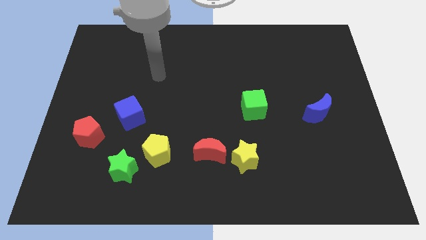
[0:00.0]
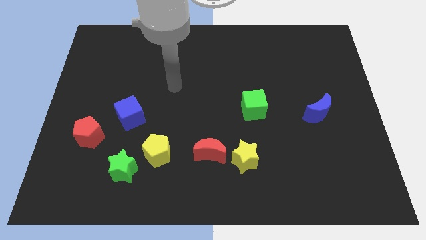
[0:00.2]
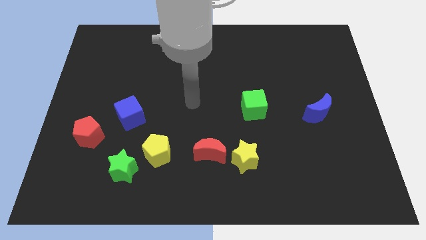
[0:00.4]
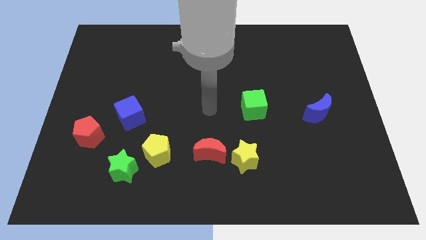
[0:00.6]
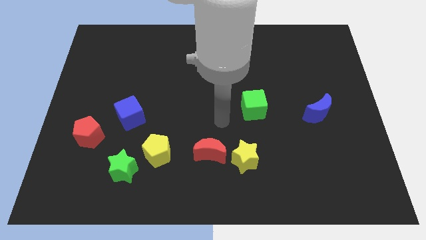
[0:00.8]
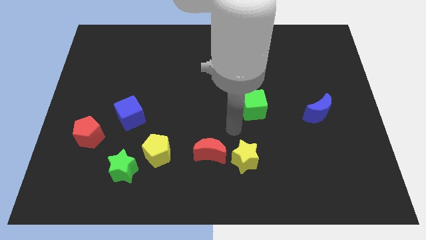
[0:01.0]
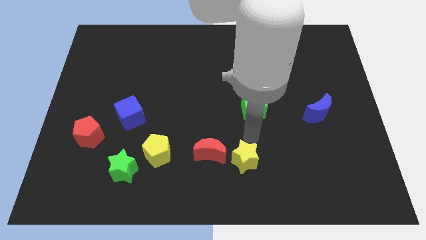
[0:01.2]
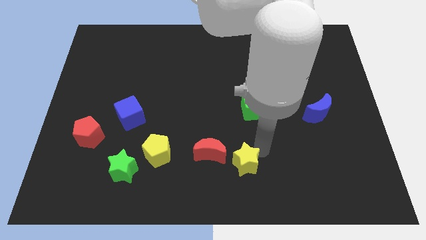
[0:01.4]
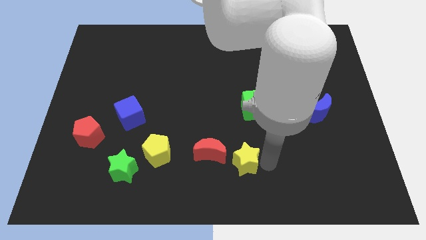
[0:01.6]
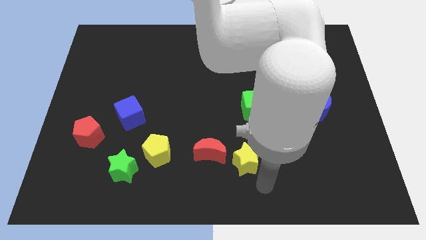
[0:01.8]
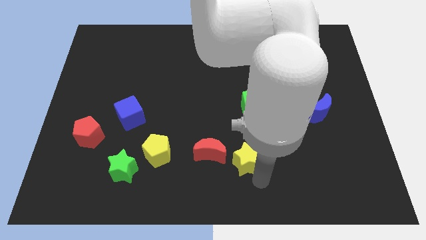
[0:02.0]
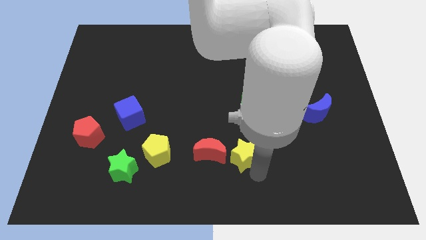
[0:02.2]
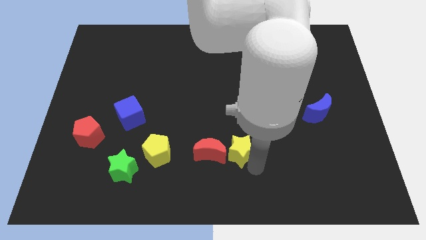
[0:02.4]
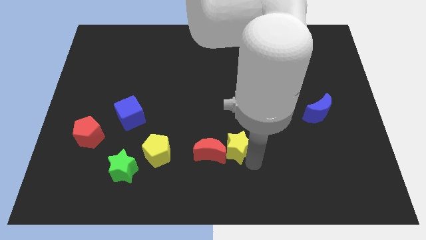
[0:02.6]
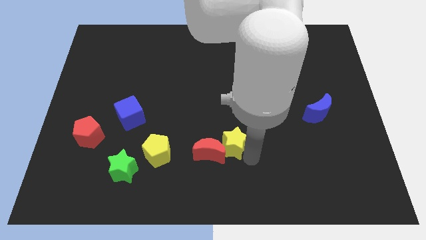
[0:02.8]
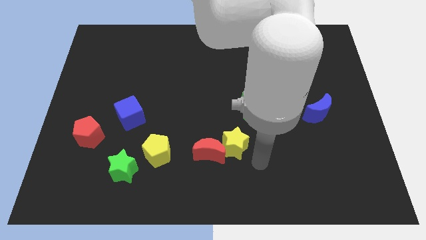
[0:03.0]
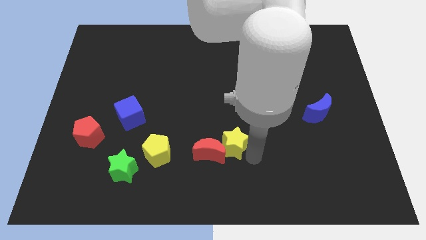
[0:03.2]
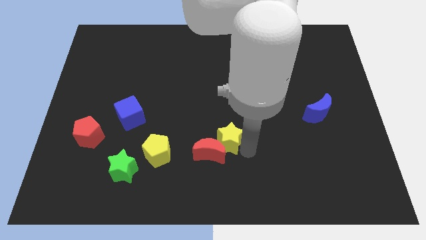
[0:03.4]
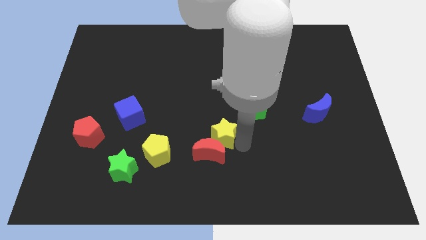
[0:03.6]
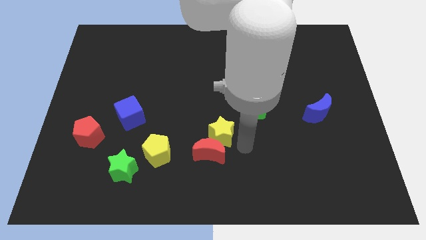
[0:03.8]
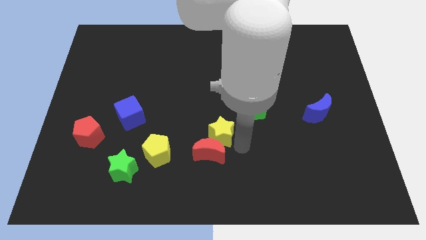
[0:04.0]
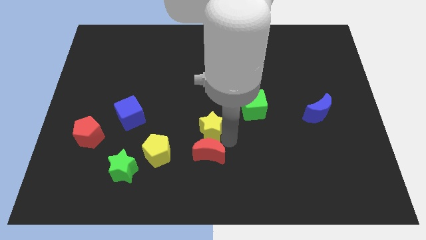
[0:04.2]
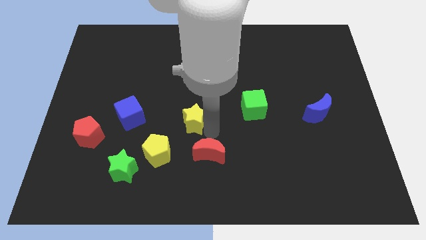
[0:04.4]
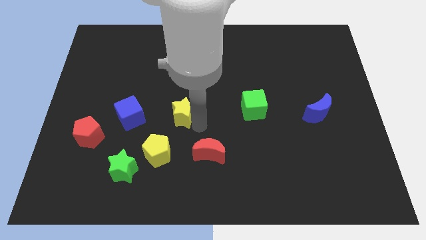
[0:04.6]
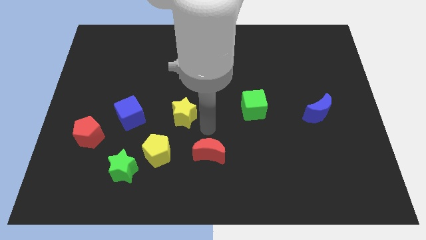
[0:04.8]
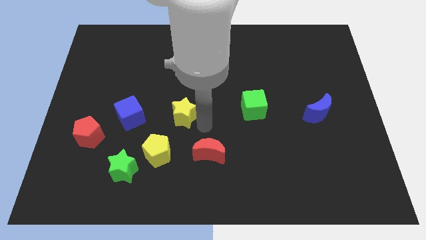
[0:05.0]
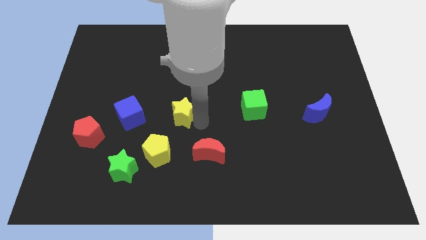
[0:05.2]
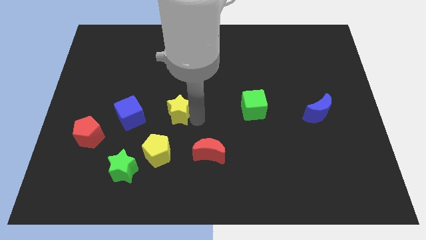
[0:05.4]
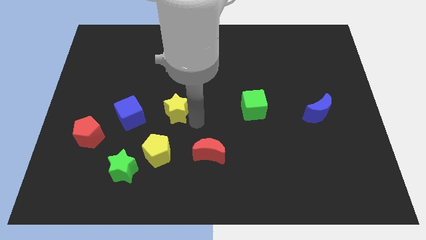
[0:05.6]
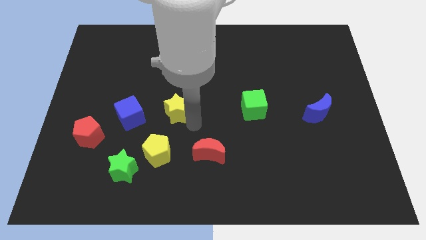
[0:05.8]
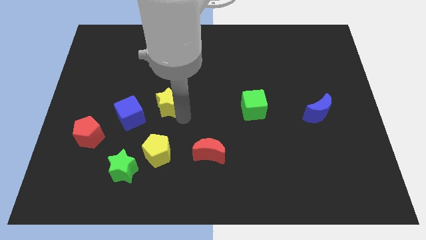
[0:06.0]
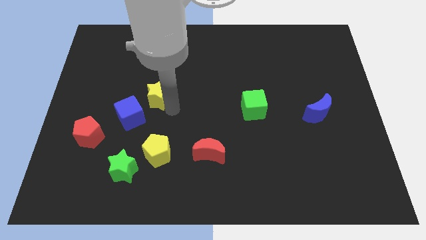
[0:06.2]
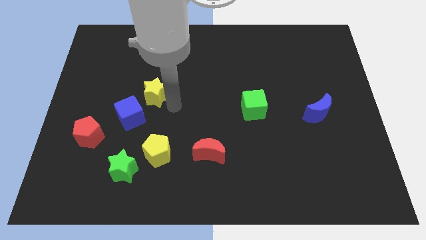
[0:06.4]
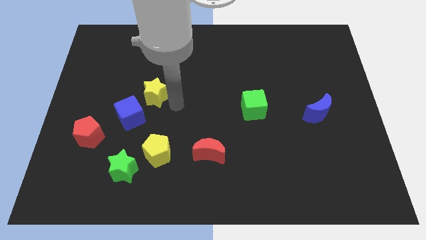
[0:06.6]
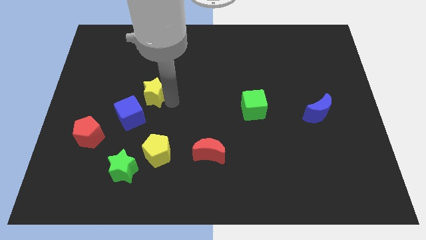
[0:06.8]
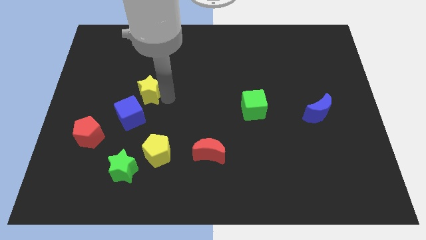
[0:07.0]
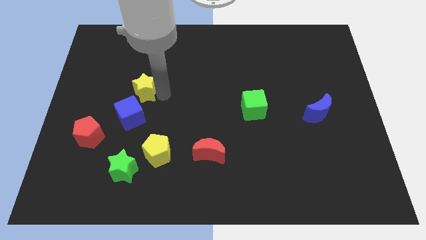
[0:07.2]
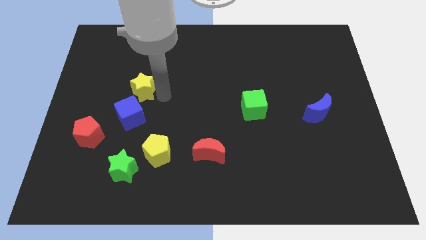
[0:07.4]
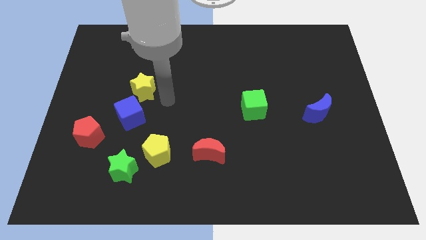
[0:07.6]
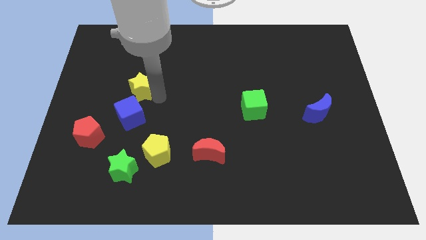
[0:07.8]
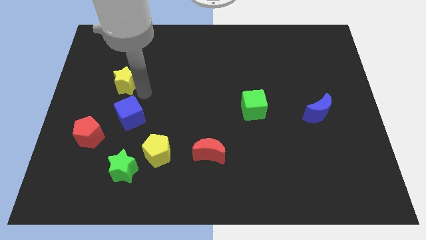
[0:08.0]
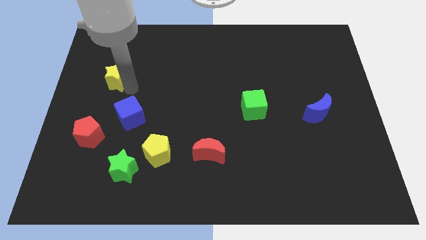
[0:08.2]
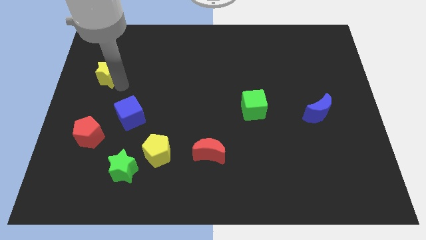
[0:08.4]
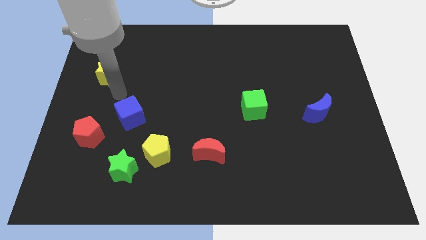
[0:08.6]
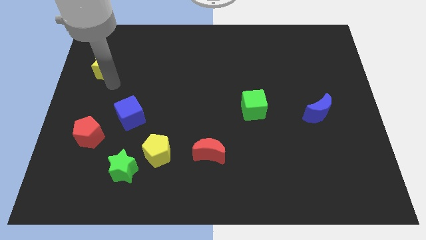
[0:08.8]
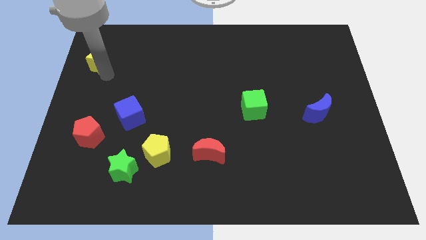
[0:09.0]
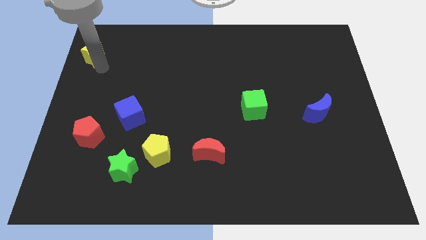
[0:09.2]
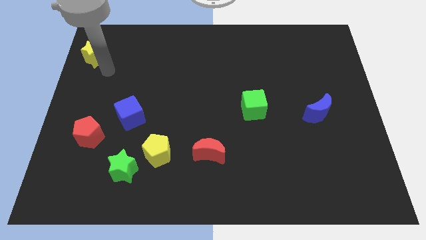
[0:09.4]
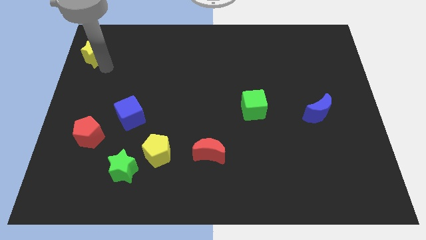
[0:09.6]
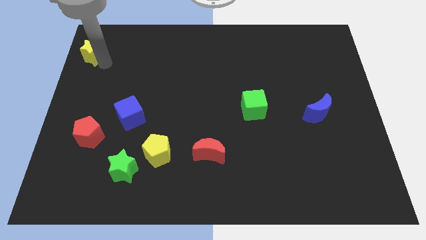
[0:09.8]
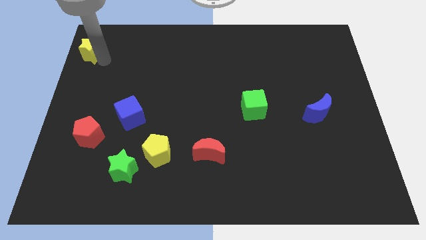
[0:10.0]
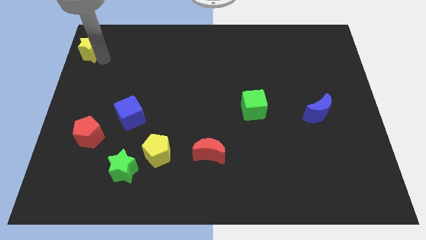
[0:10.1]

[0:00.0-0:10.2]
put the yellow star to the upper left corner

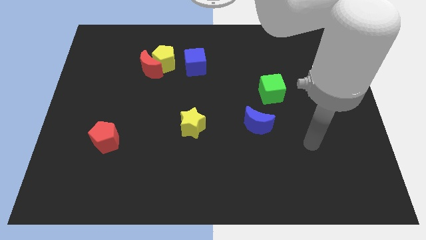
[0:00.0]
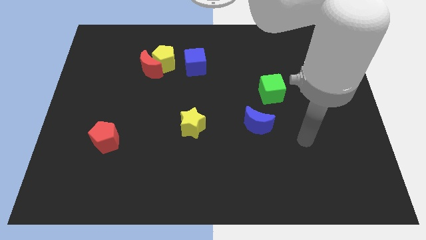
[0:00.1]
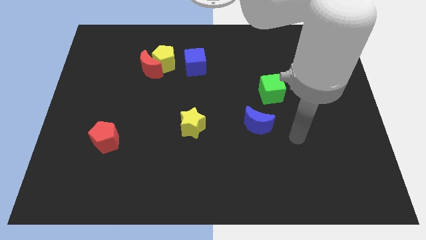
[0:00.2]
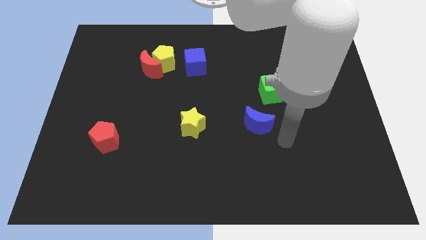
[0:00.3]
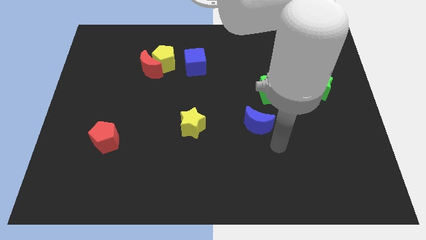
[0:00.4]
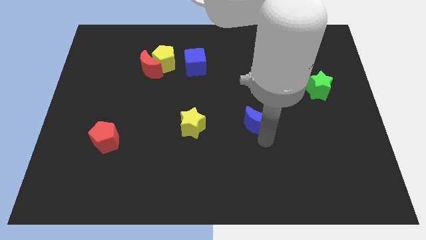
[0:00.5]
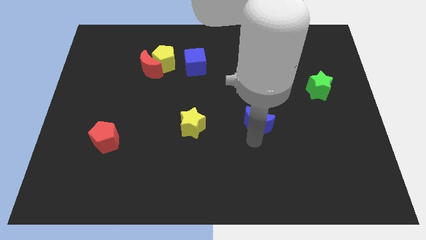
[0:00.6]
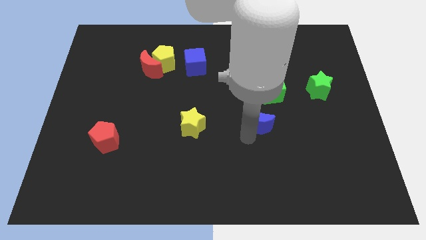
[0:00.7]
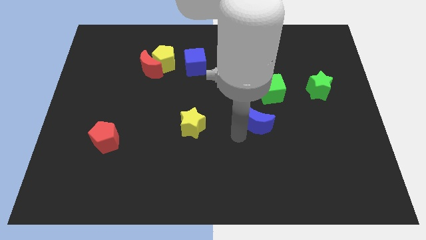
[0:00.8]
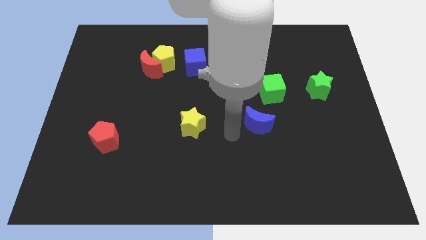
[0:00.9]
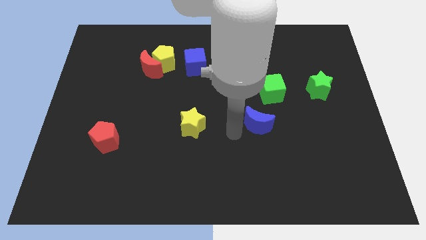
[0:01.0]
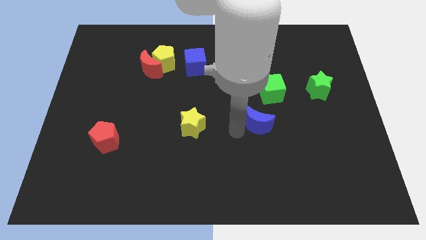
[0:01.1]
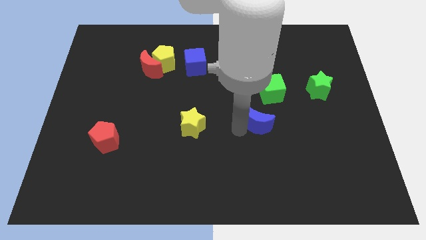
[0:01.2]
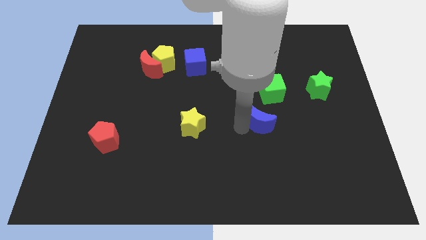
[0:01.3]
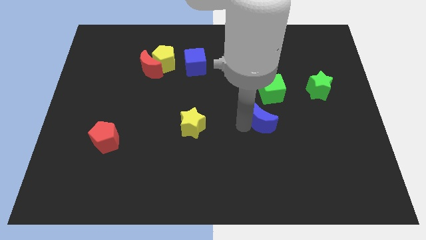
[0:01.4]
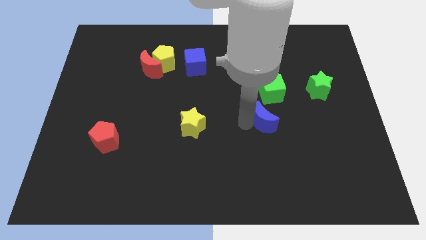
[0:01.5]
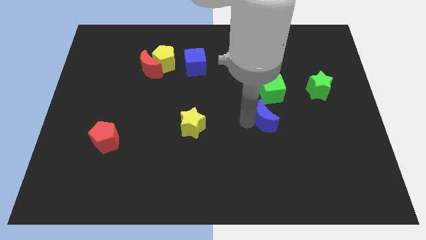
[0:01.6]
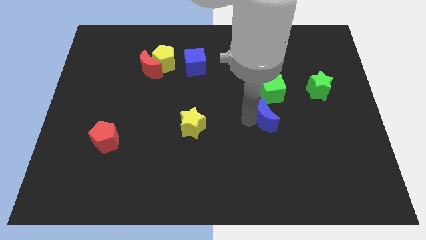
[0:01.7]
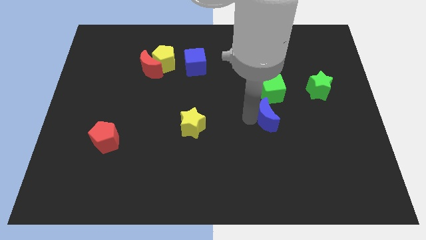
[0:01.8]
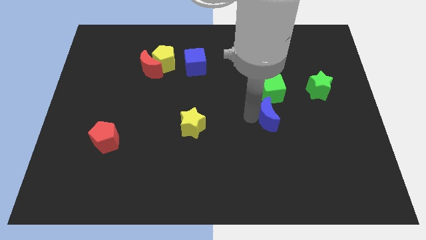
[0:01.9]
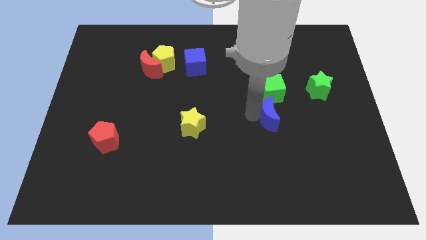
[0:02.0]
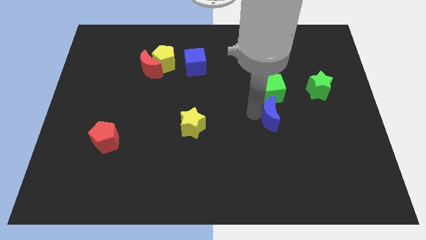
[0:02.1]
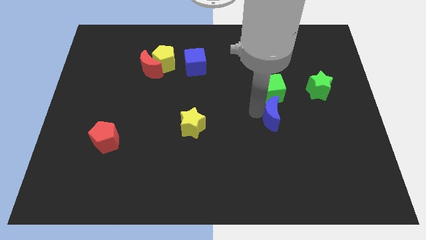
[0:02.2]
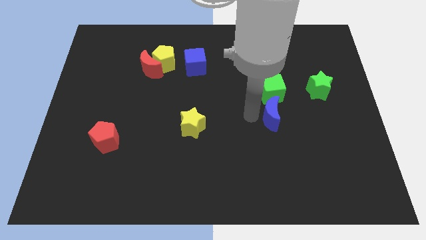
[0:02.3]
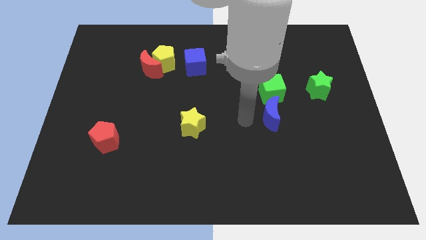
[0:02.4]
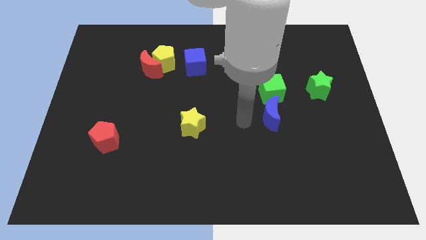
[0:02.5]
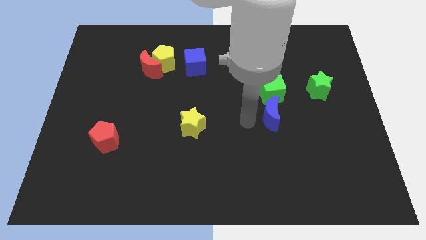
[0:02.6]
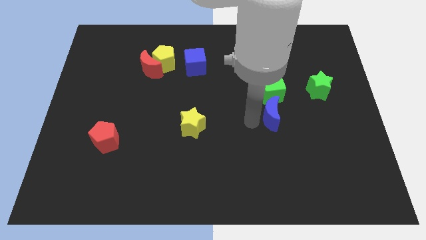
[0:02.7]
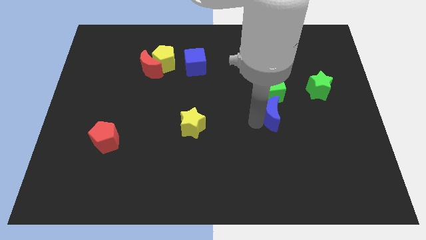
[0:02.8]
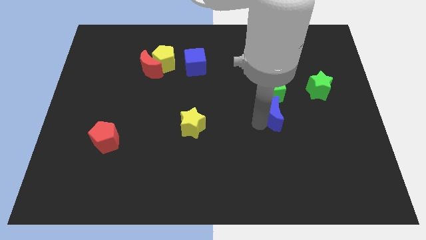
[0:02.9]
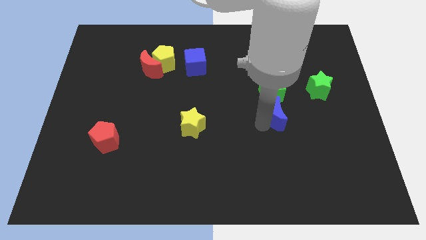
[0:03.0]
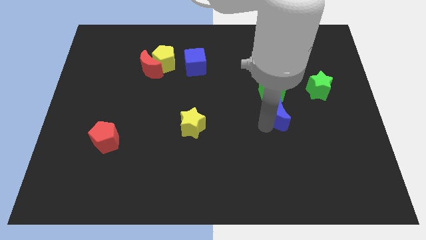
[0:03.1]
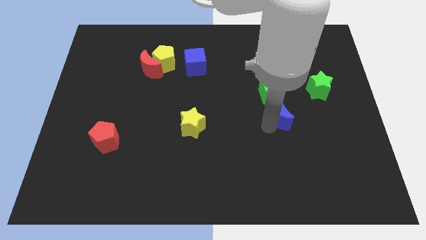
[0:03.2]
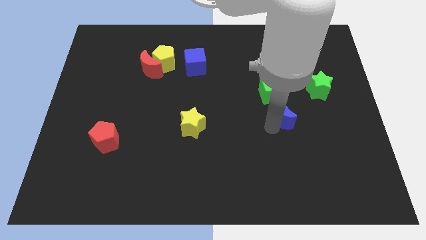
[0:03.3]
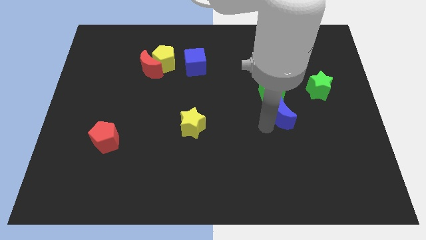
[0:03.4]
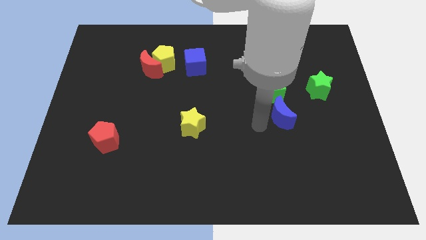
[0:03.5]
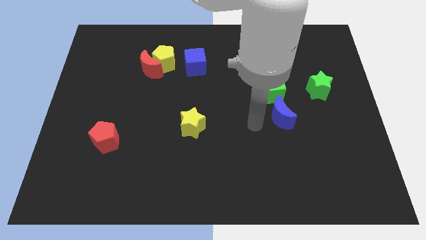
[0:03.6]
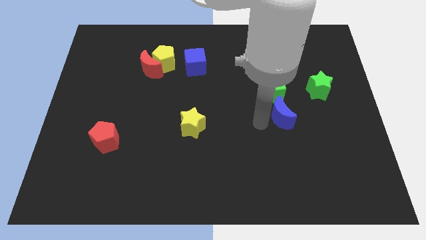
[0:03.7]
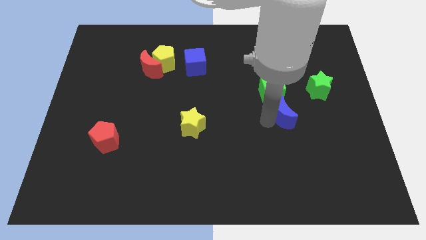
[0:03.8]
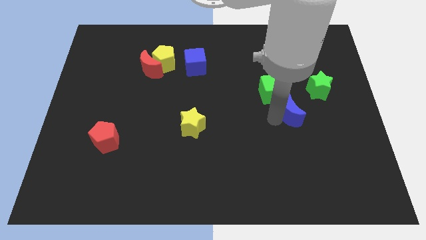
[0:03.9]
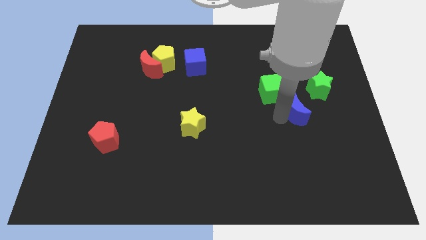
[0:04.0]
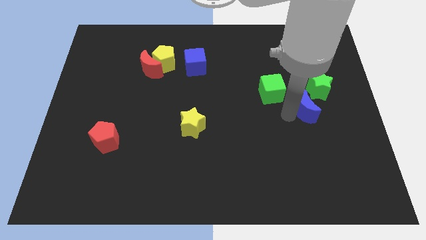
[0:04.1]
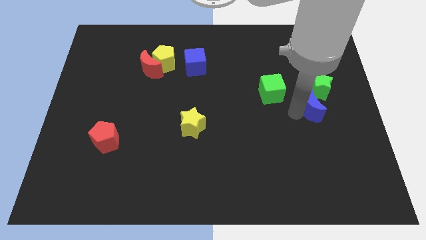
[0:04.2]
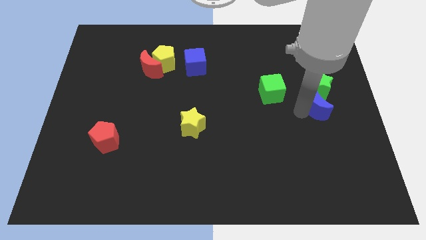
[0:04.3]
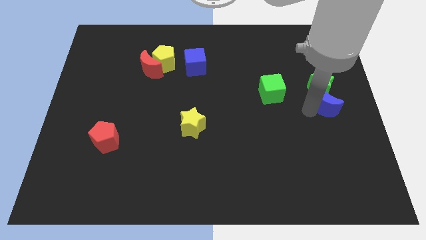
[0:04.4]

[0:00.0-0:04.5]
slide the blue moon to the right side of the board
